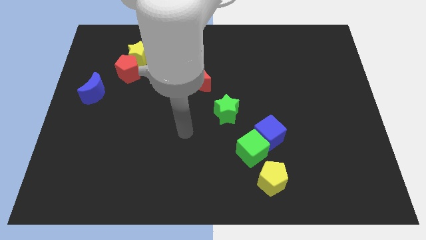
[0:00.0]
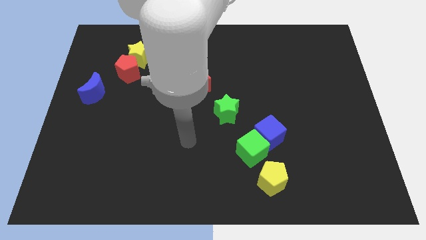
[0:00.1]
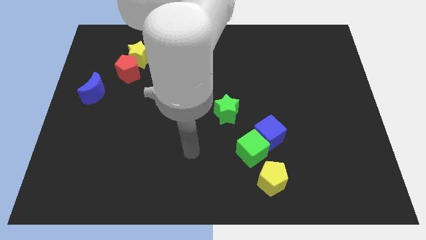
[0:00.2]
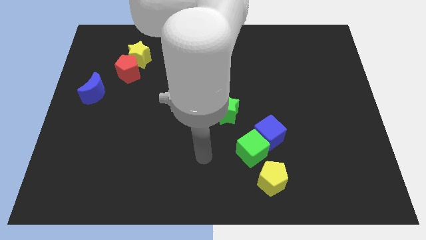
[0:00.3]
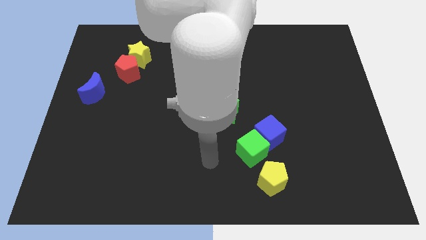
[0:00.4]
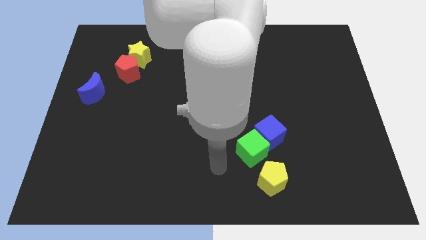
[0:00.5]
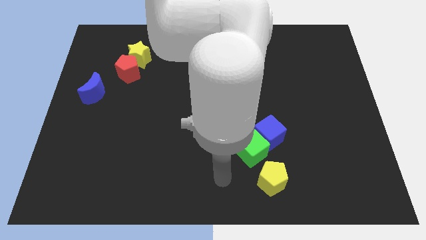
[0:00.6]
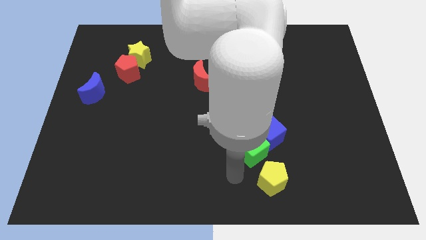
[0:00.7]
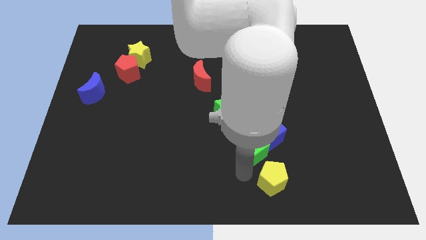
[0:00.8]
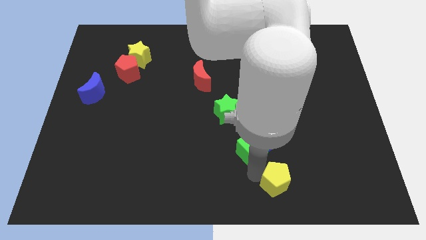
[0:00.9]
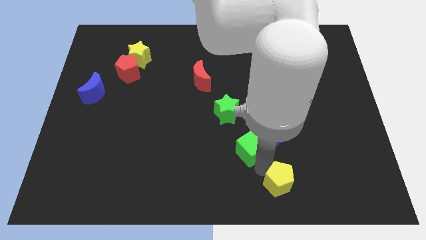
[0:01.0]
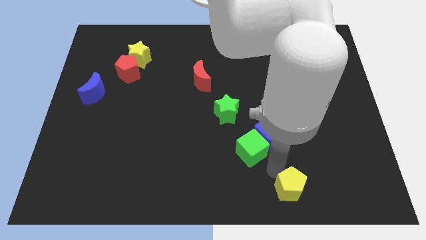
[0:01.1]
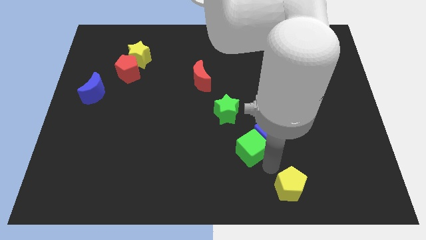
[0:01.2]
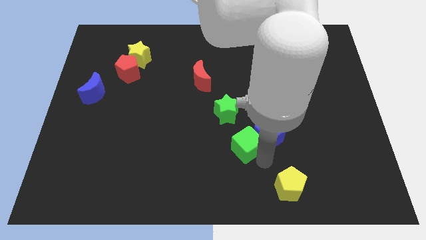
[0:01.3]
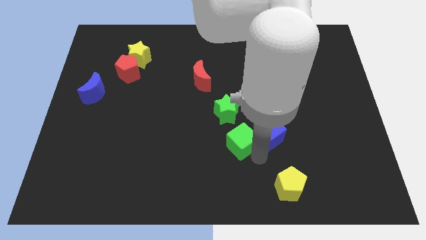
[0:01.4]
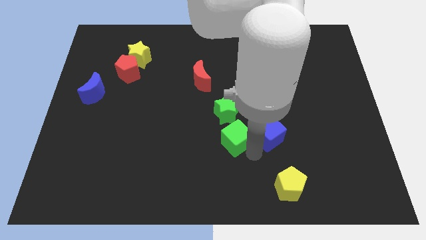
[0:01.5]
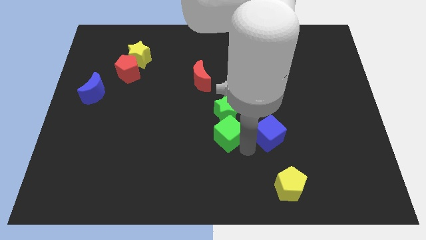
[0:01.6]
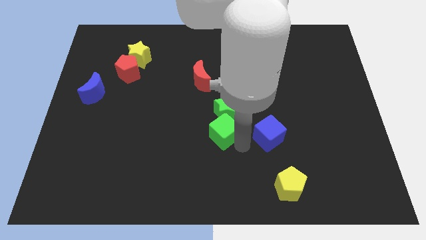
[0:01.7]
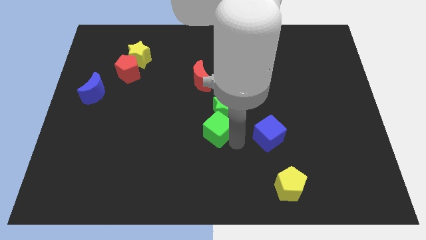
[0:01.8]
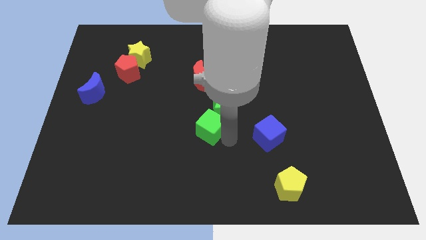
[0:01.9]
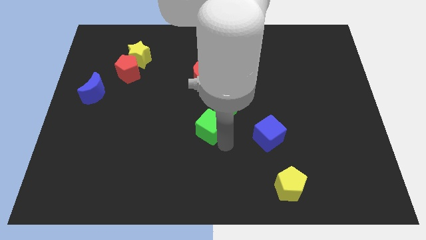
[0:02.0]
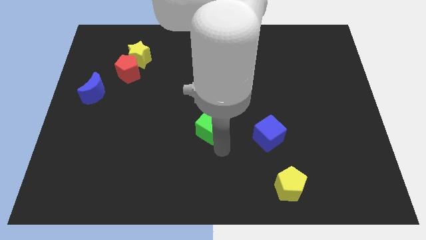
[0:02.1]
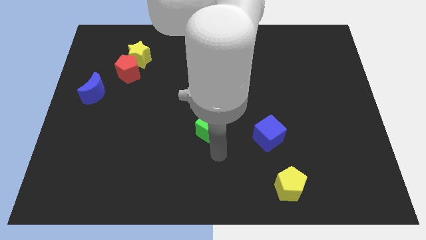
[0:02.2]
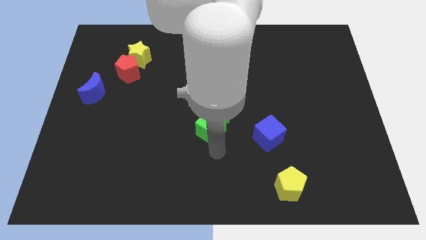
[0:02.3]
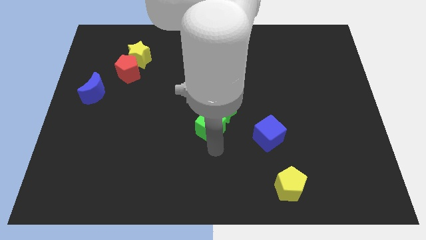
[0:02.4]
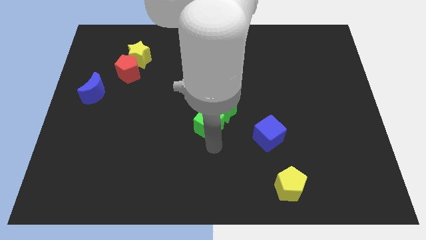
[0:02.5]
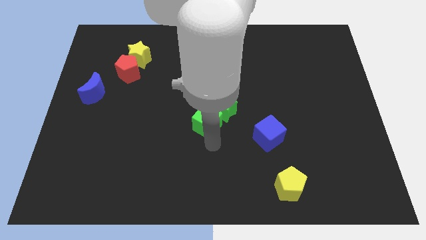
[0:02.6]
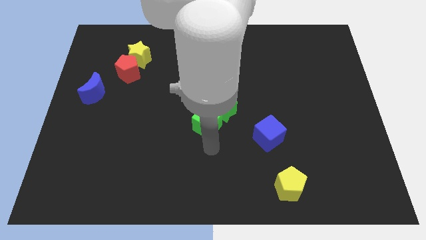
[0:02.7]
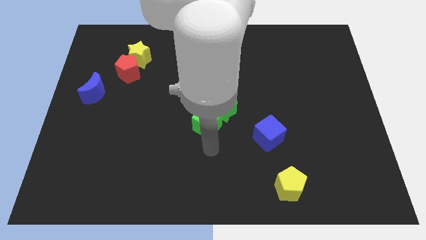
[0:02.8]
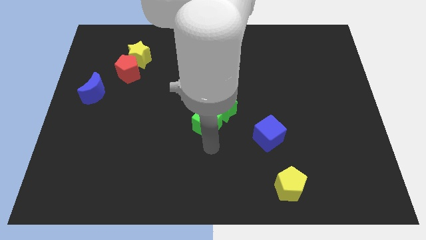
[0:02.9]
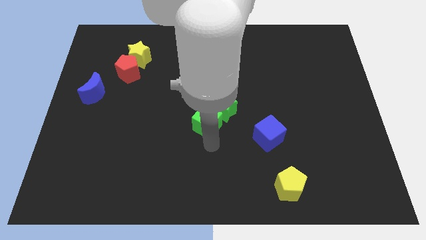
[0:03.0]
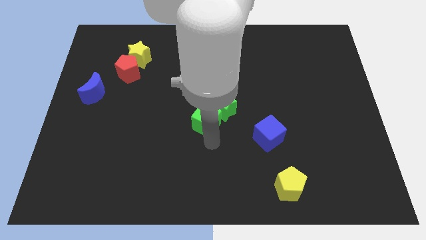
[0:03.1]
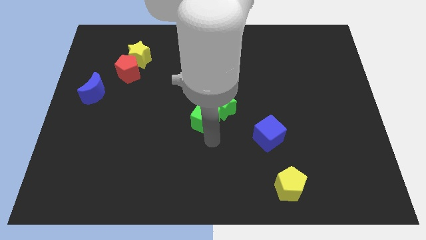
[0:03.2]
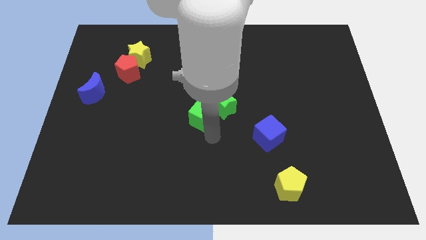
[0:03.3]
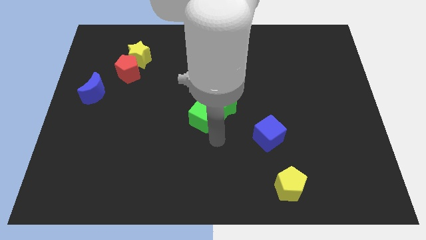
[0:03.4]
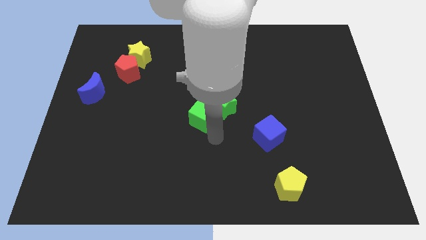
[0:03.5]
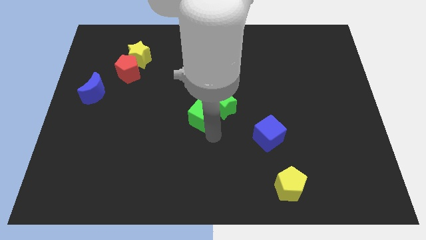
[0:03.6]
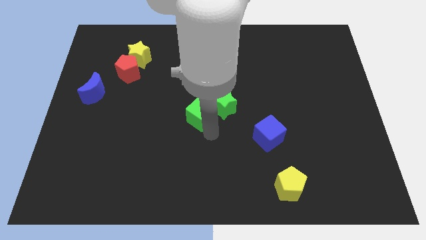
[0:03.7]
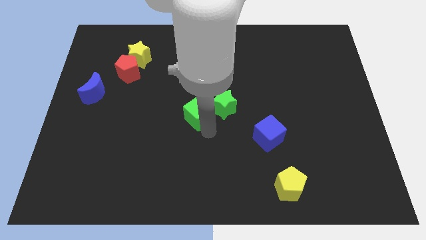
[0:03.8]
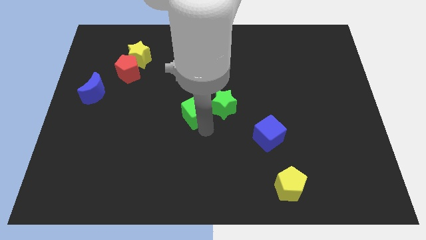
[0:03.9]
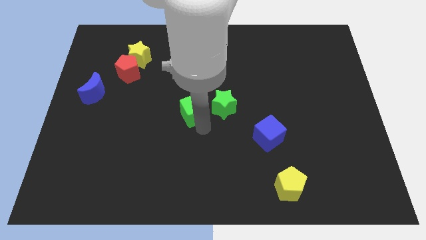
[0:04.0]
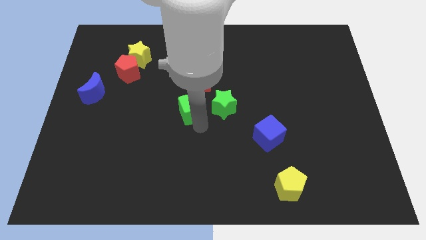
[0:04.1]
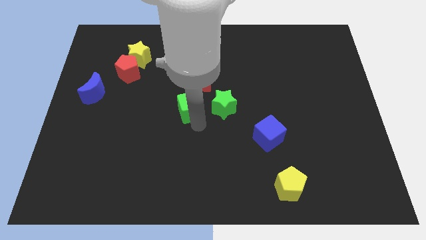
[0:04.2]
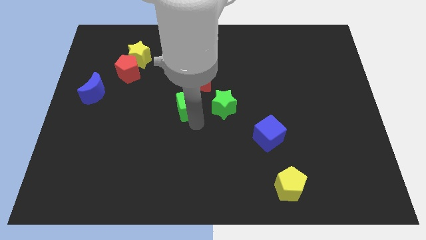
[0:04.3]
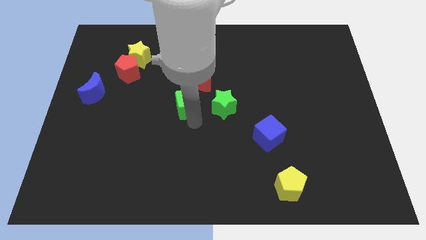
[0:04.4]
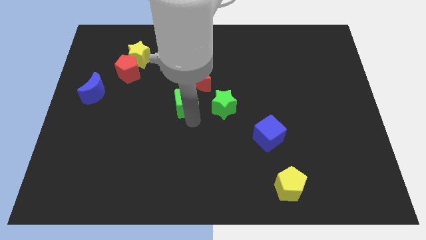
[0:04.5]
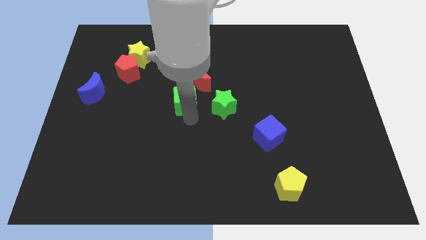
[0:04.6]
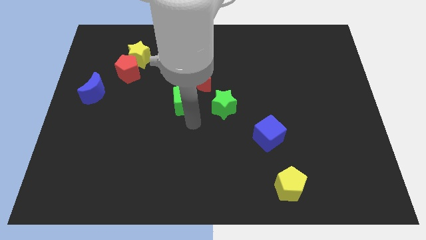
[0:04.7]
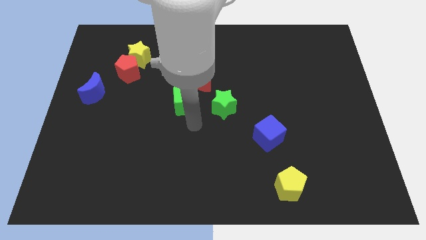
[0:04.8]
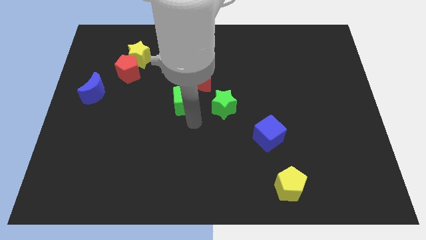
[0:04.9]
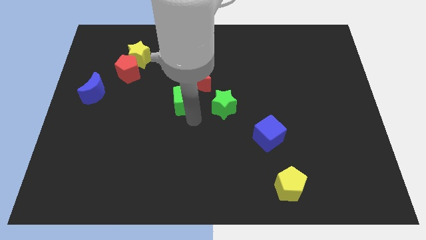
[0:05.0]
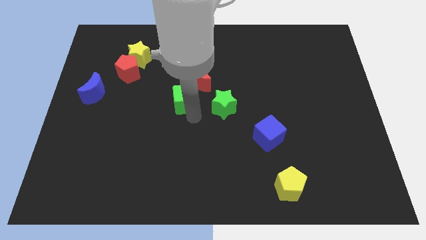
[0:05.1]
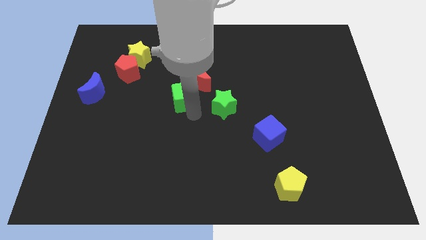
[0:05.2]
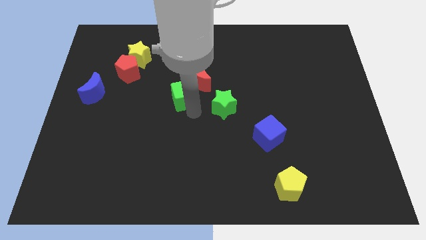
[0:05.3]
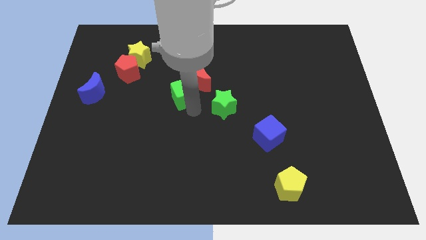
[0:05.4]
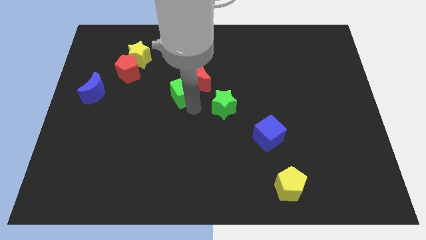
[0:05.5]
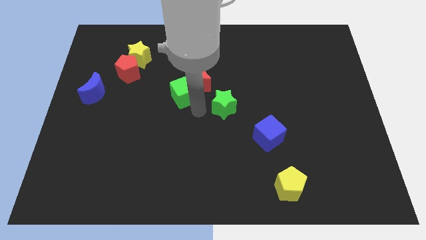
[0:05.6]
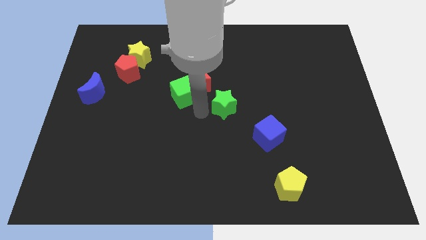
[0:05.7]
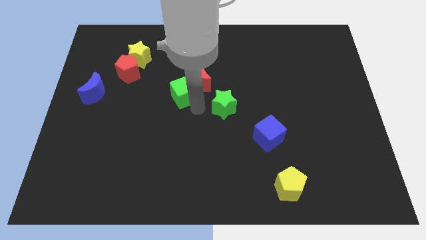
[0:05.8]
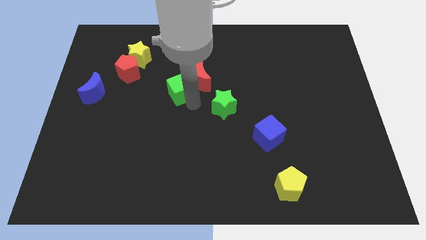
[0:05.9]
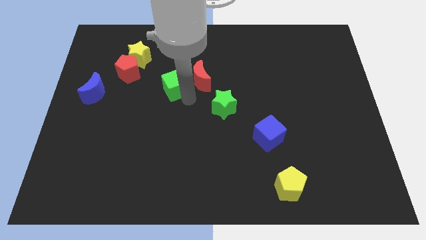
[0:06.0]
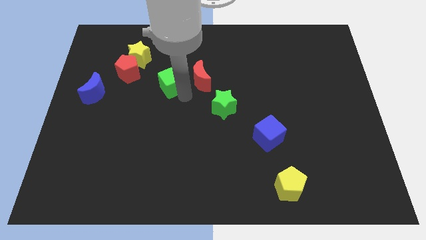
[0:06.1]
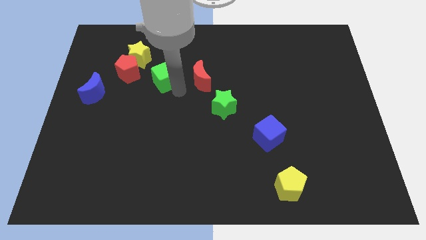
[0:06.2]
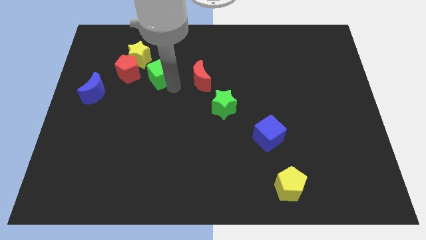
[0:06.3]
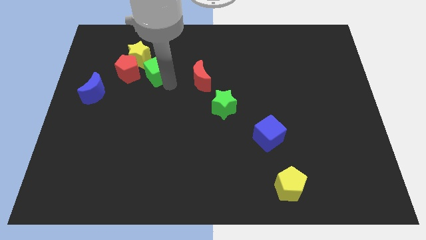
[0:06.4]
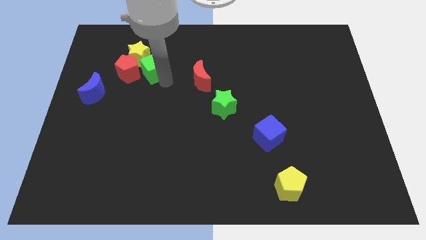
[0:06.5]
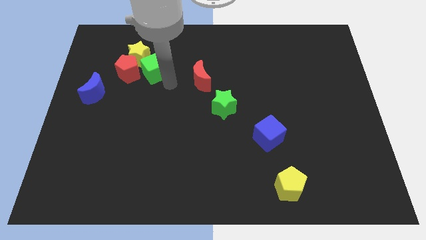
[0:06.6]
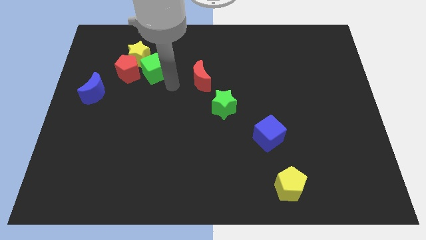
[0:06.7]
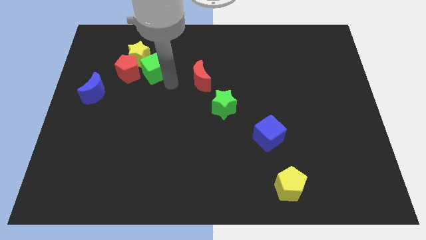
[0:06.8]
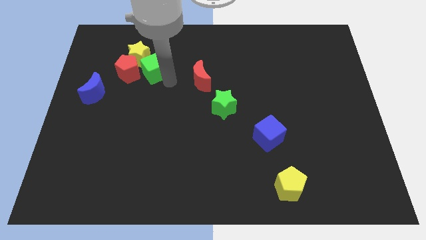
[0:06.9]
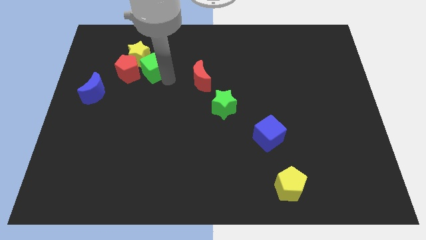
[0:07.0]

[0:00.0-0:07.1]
slide the green cube close to the yellow star

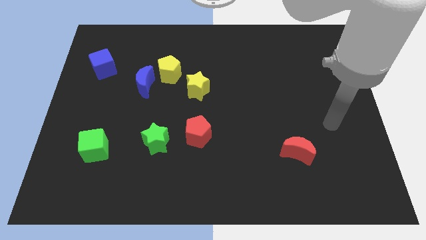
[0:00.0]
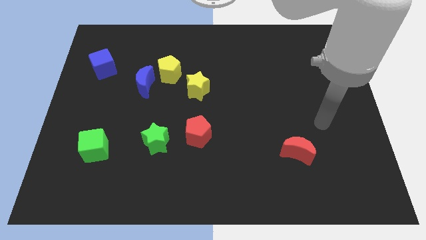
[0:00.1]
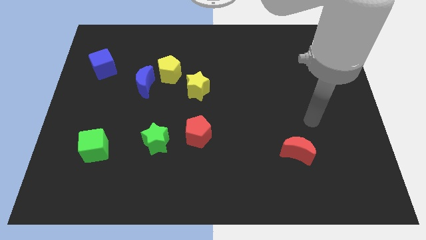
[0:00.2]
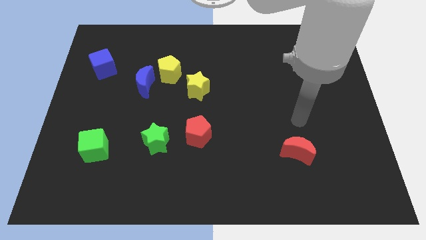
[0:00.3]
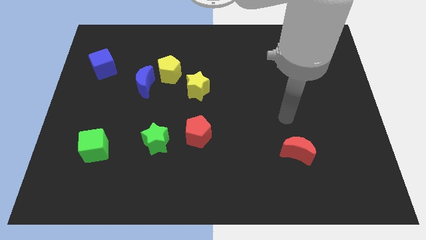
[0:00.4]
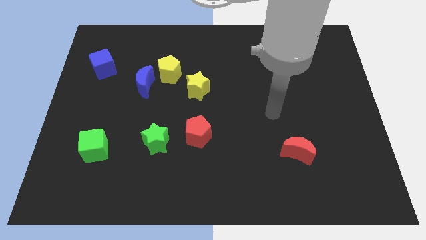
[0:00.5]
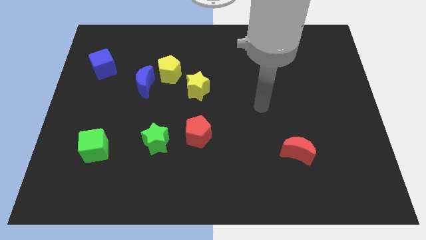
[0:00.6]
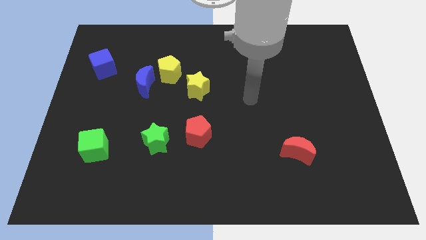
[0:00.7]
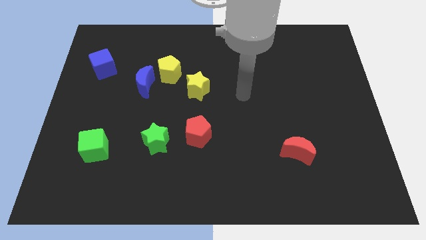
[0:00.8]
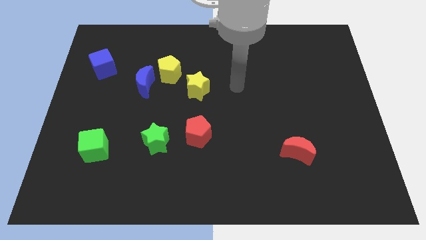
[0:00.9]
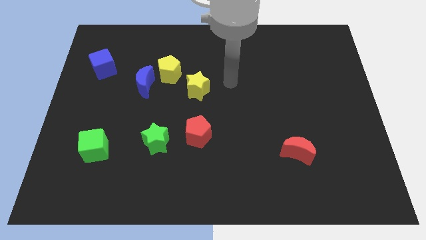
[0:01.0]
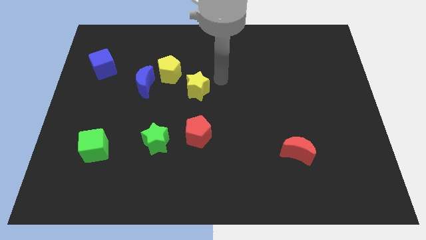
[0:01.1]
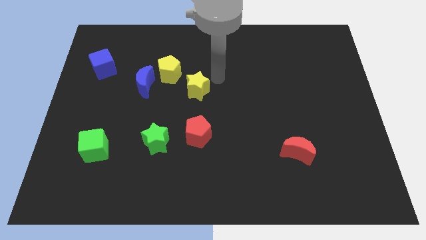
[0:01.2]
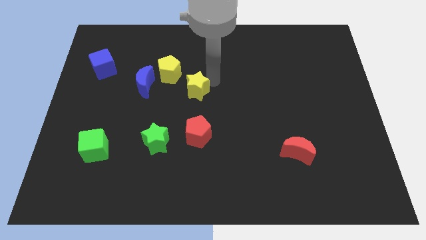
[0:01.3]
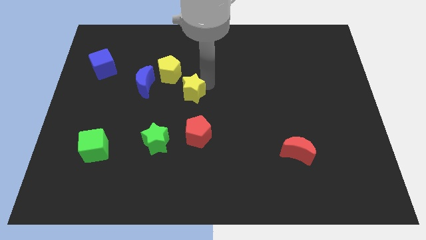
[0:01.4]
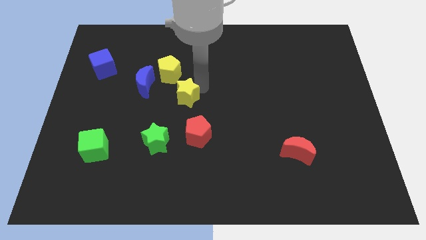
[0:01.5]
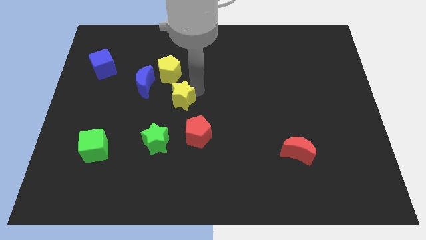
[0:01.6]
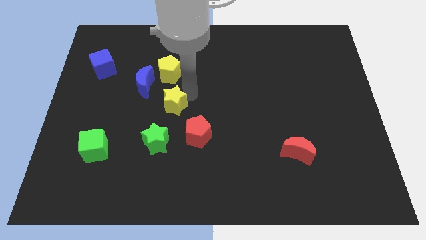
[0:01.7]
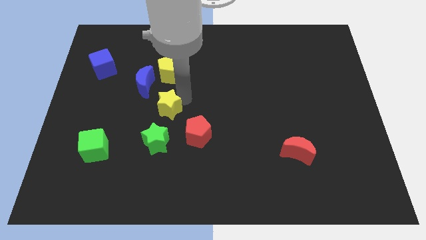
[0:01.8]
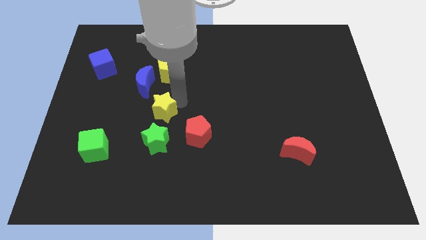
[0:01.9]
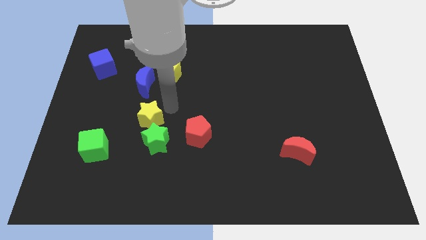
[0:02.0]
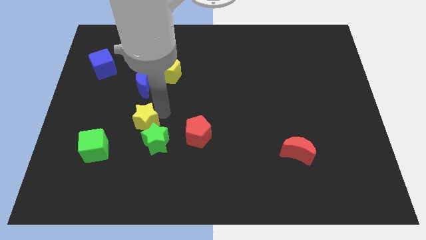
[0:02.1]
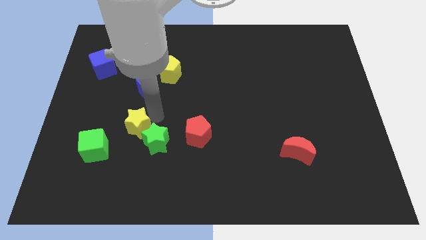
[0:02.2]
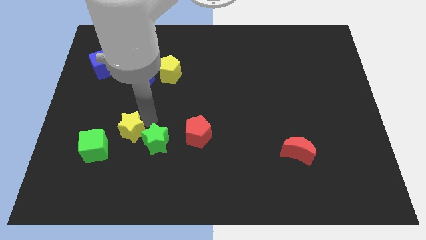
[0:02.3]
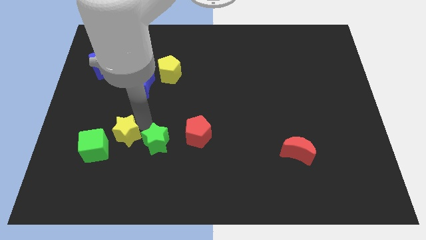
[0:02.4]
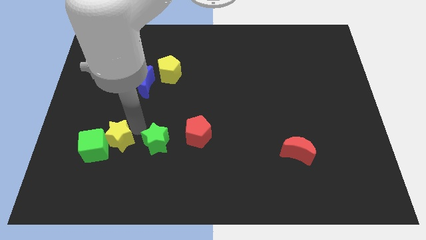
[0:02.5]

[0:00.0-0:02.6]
move the yellow star next to the green cube
